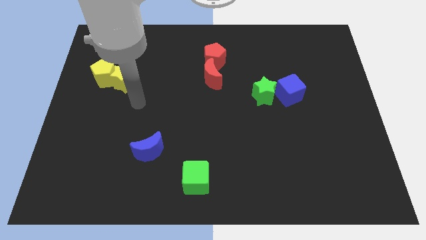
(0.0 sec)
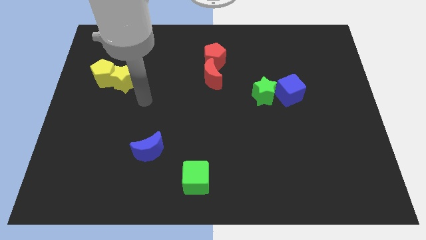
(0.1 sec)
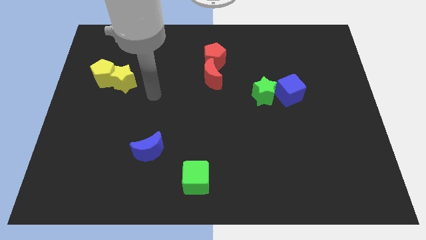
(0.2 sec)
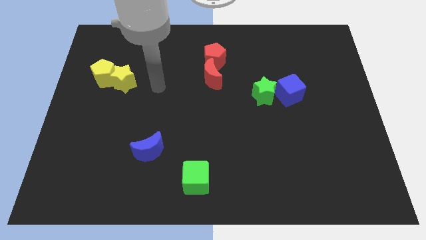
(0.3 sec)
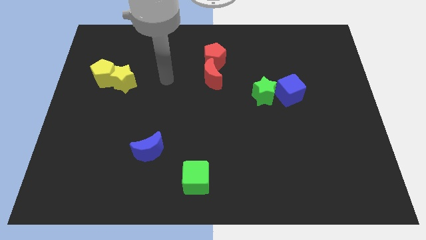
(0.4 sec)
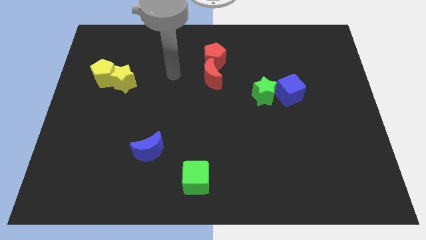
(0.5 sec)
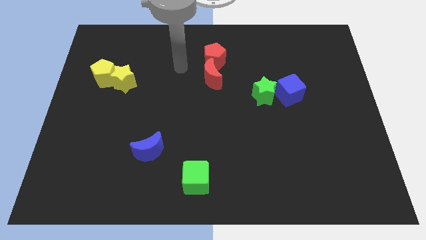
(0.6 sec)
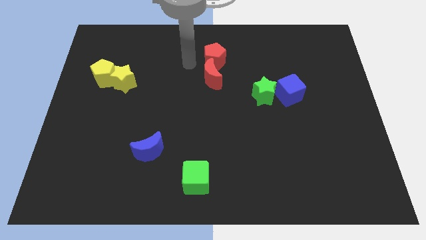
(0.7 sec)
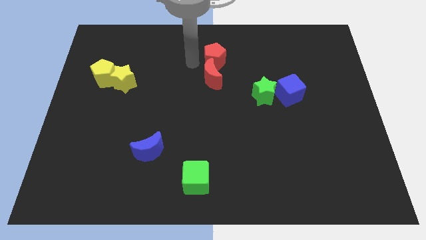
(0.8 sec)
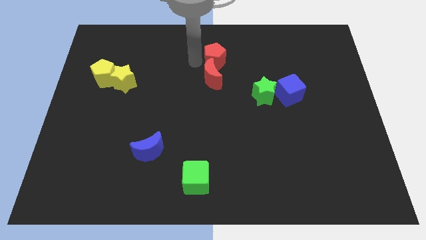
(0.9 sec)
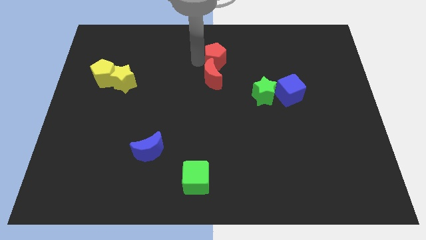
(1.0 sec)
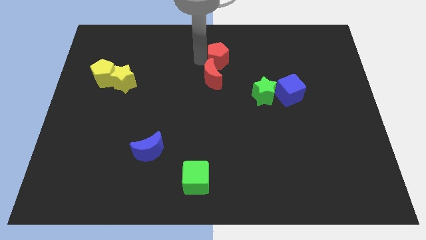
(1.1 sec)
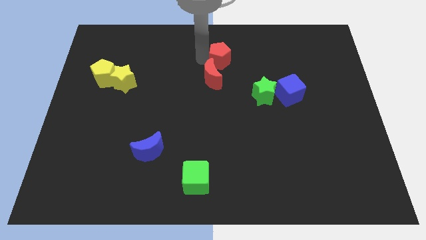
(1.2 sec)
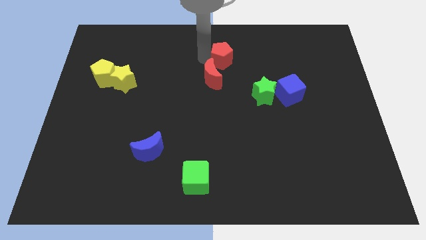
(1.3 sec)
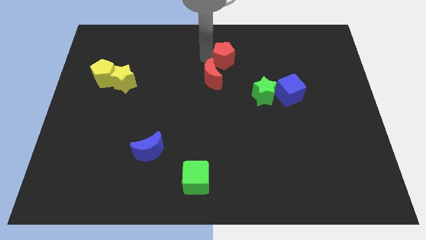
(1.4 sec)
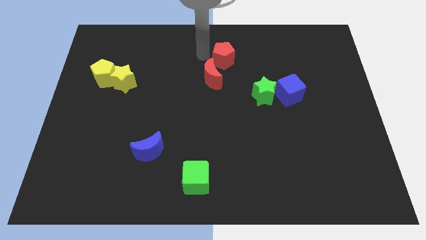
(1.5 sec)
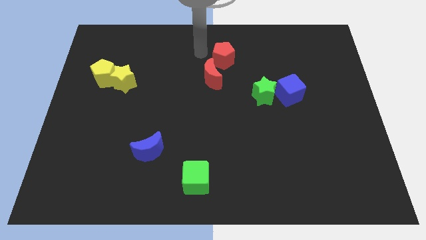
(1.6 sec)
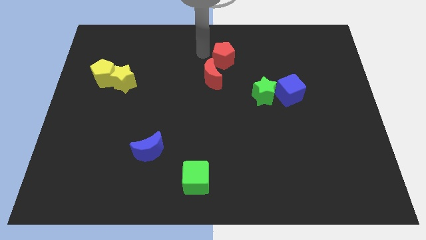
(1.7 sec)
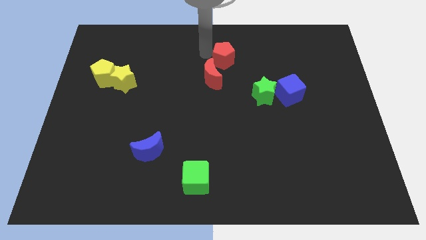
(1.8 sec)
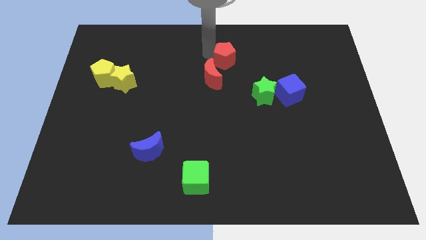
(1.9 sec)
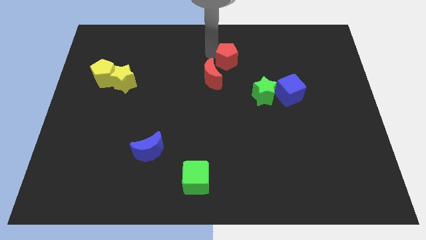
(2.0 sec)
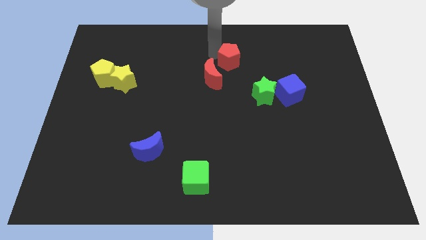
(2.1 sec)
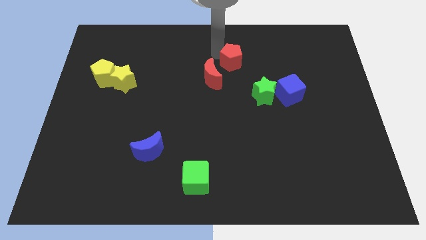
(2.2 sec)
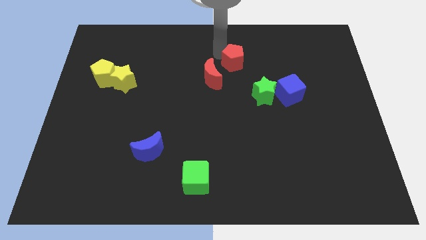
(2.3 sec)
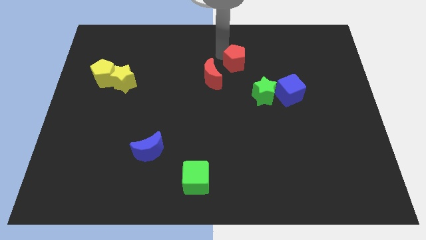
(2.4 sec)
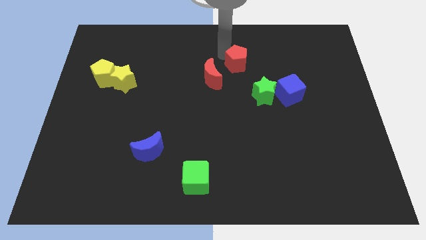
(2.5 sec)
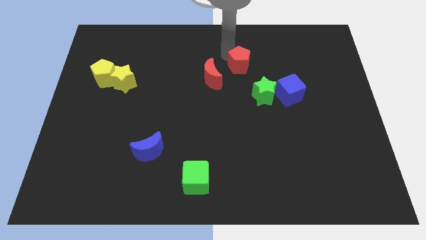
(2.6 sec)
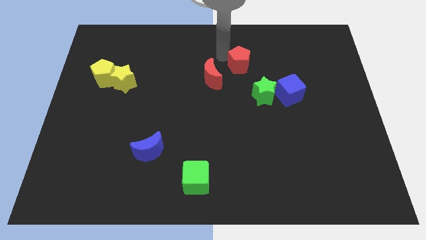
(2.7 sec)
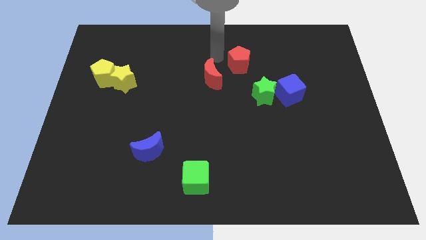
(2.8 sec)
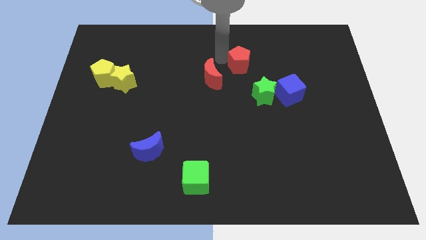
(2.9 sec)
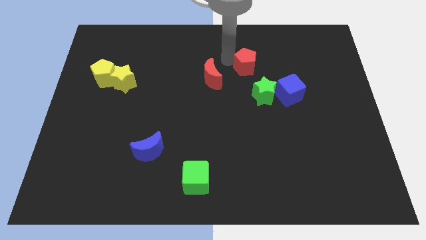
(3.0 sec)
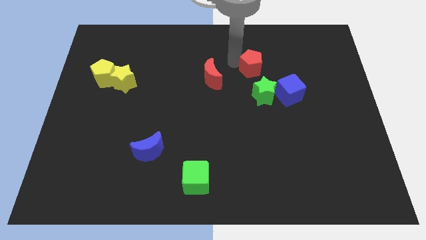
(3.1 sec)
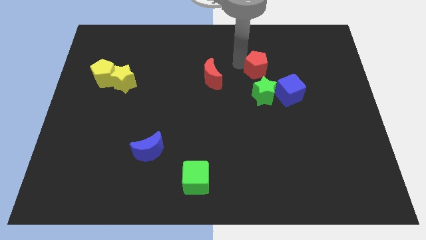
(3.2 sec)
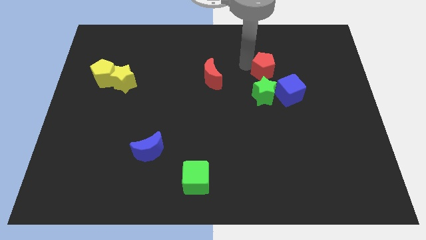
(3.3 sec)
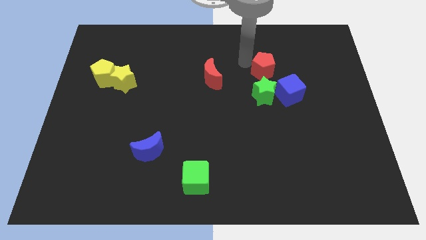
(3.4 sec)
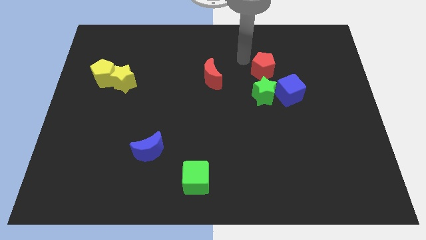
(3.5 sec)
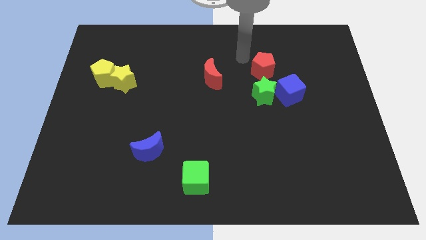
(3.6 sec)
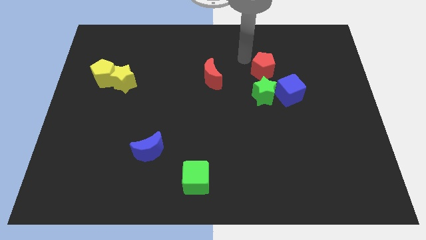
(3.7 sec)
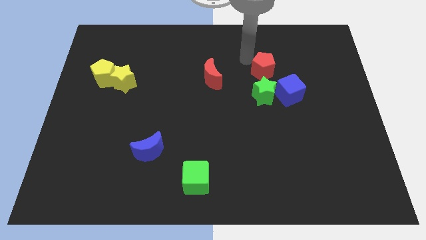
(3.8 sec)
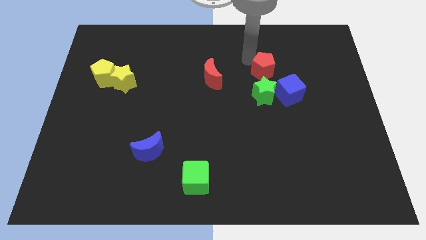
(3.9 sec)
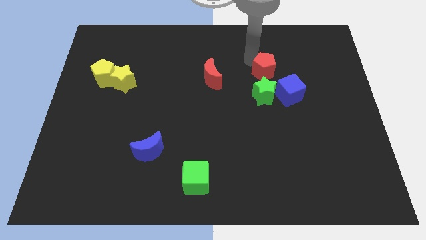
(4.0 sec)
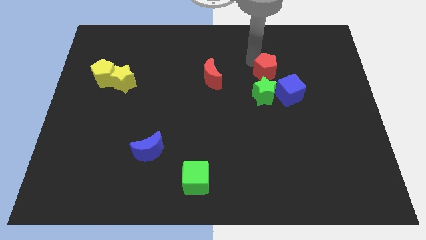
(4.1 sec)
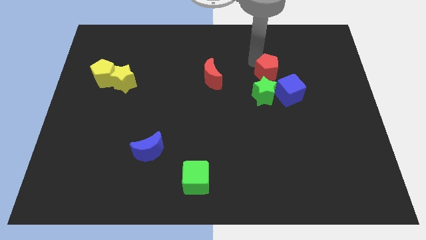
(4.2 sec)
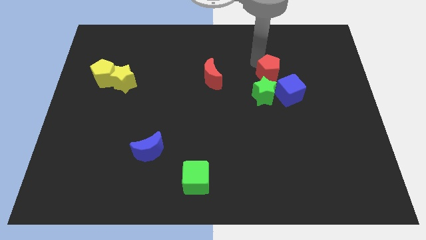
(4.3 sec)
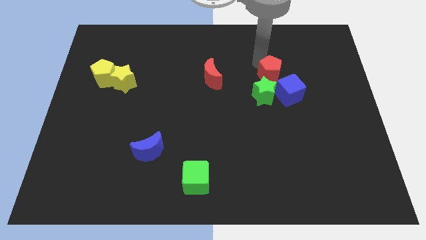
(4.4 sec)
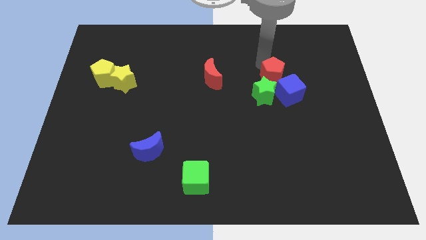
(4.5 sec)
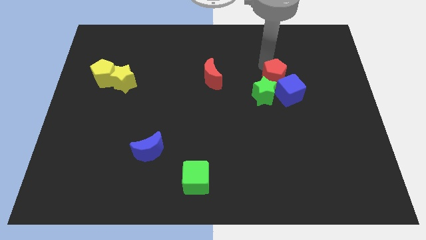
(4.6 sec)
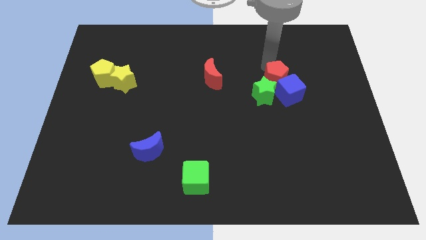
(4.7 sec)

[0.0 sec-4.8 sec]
put the red pentagon towards the blue cube

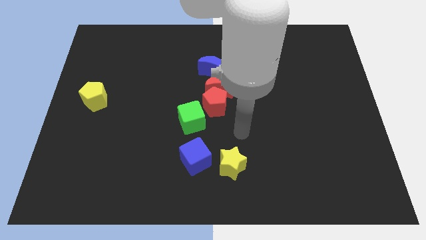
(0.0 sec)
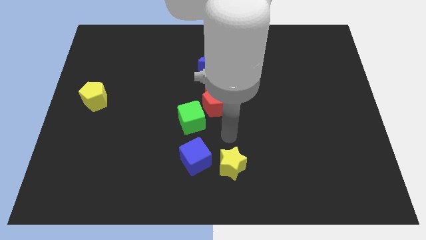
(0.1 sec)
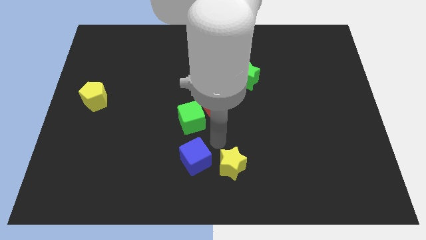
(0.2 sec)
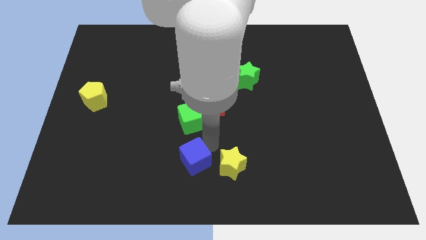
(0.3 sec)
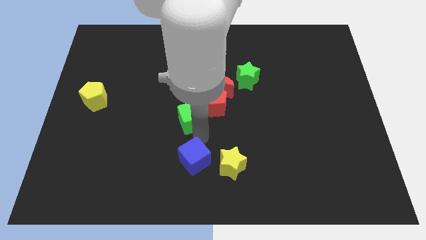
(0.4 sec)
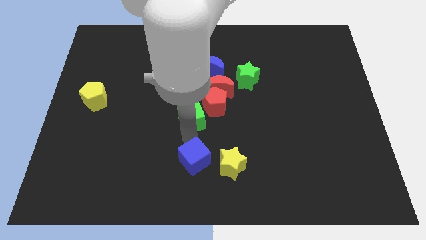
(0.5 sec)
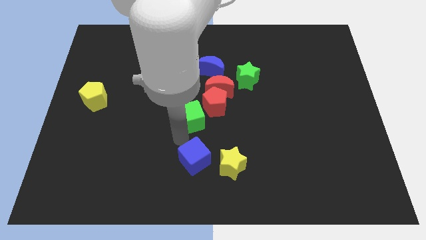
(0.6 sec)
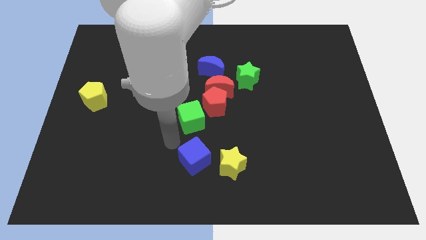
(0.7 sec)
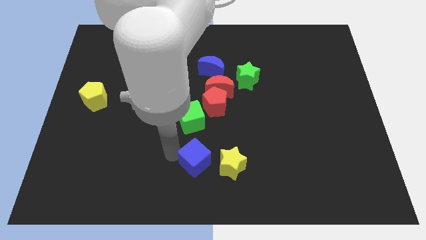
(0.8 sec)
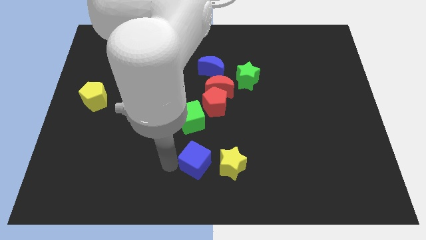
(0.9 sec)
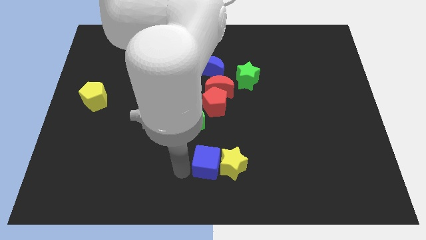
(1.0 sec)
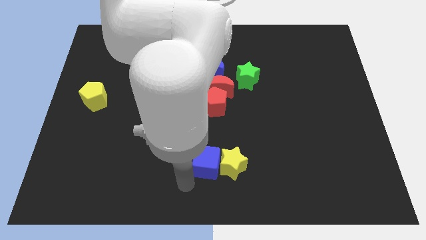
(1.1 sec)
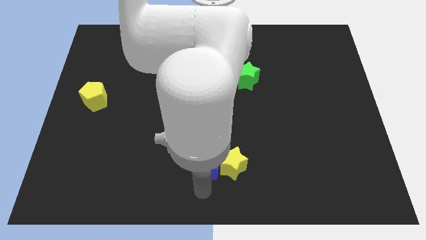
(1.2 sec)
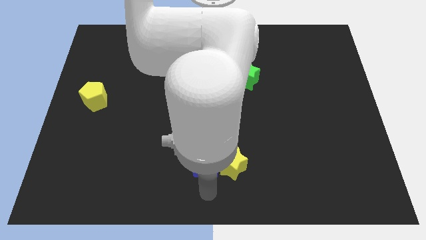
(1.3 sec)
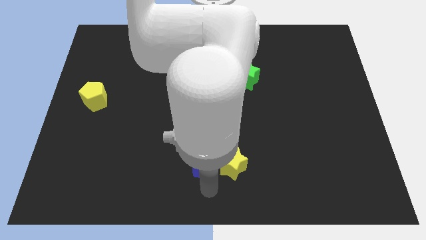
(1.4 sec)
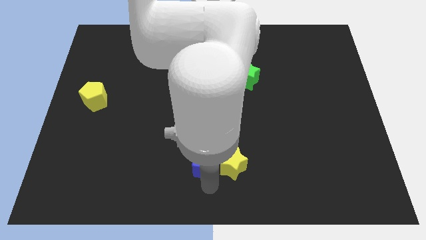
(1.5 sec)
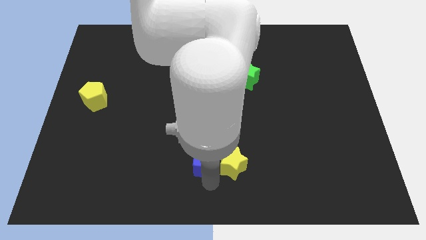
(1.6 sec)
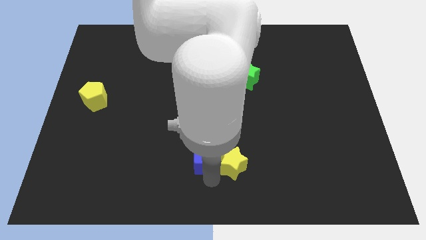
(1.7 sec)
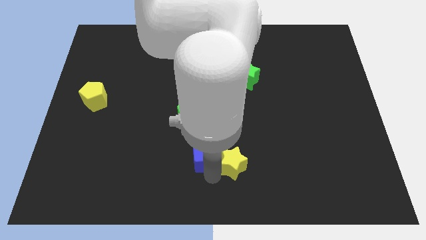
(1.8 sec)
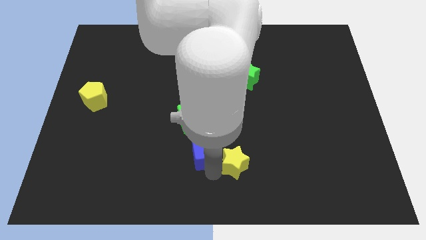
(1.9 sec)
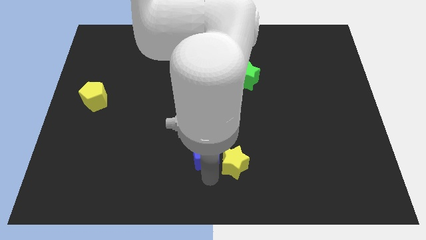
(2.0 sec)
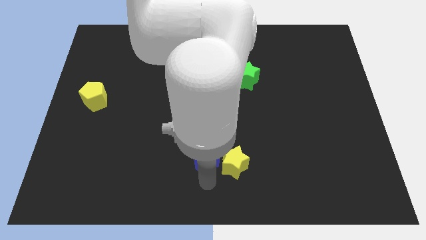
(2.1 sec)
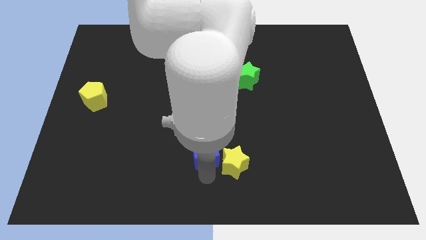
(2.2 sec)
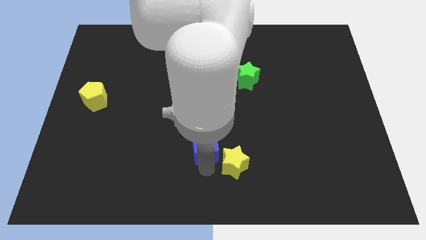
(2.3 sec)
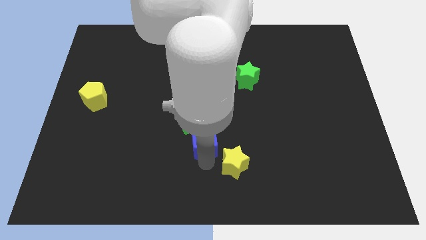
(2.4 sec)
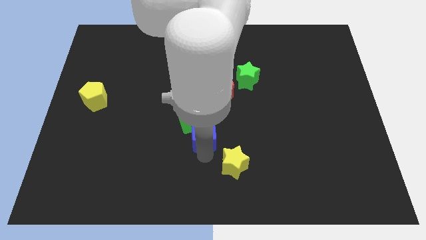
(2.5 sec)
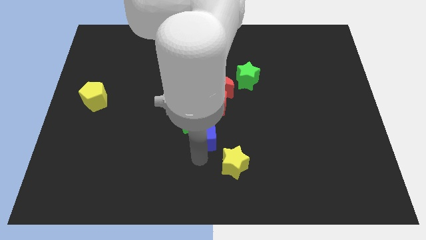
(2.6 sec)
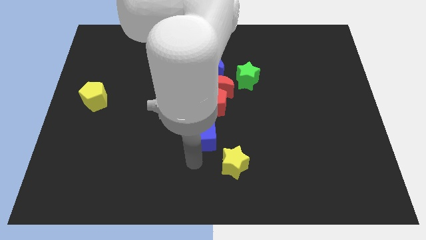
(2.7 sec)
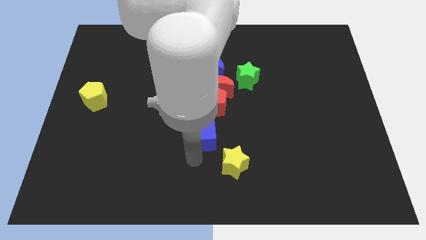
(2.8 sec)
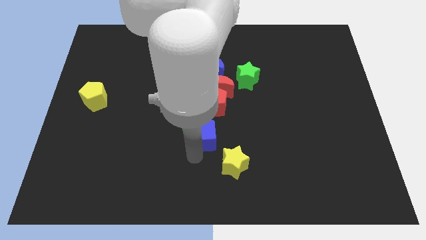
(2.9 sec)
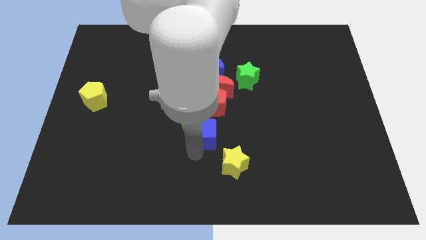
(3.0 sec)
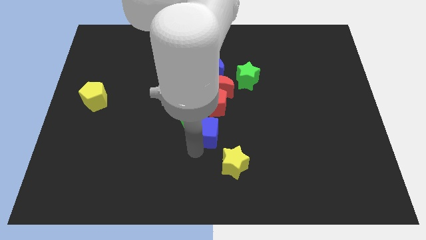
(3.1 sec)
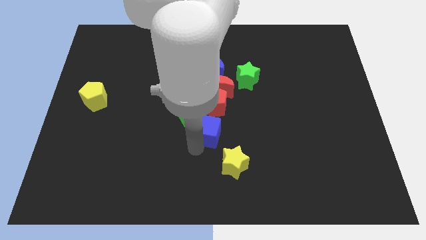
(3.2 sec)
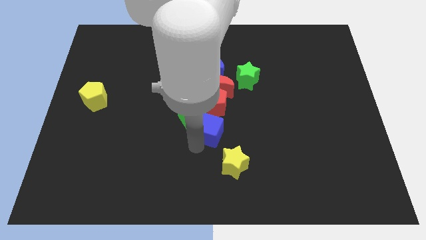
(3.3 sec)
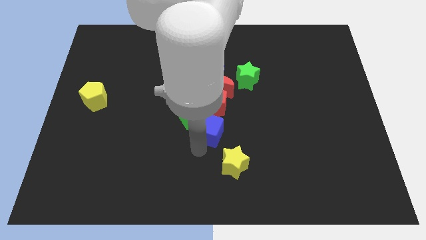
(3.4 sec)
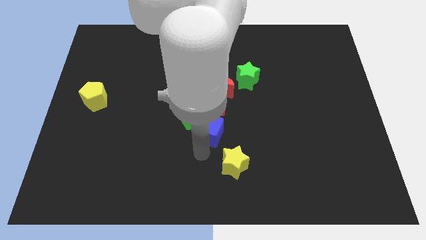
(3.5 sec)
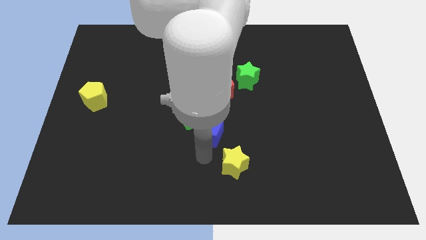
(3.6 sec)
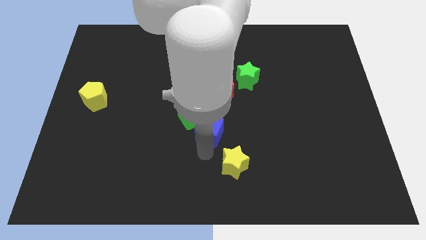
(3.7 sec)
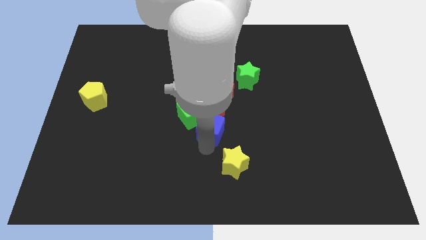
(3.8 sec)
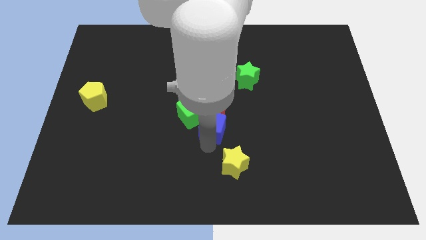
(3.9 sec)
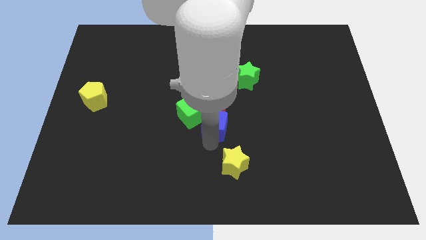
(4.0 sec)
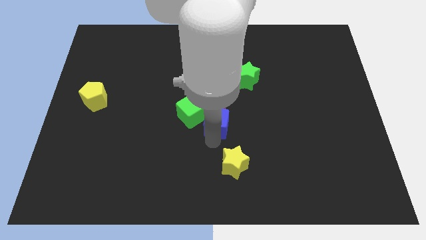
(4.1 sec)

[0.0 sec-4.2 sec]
slide the blue cube to the red pentagon
